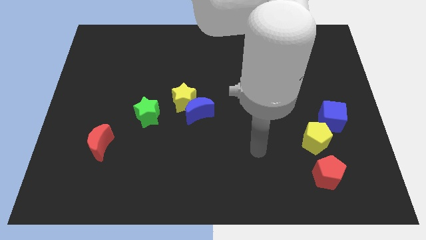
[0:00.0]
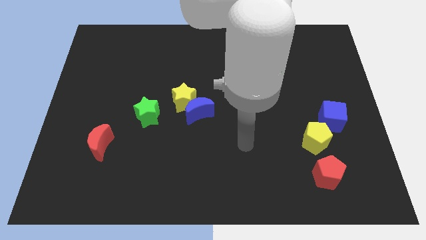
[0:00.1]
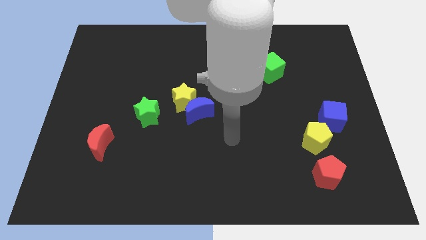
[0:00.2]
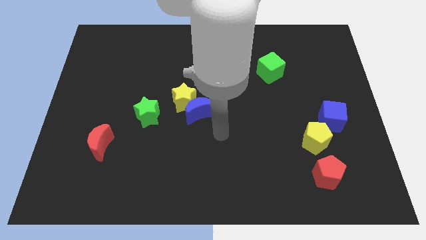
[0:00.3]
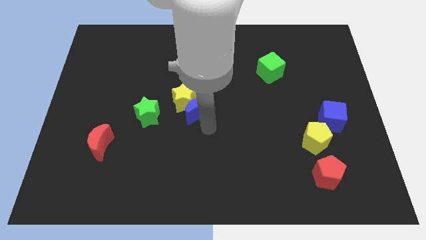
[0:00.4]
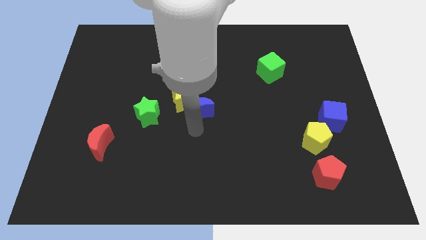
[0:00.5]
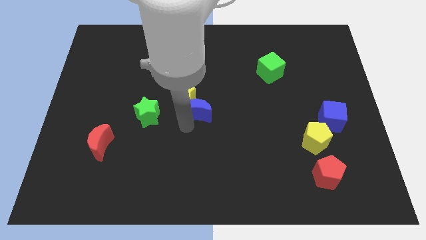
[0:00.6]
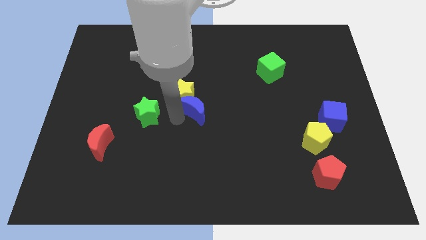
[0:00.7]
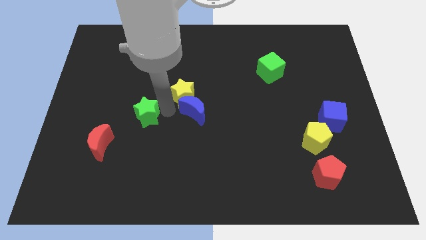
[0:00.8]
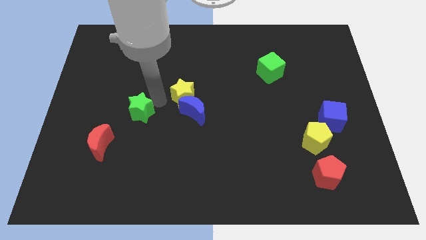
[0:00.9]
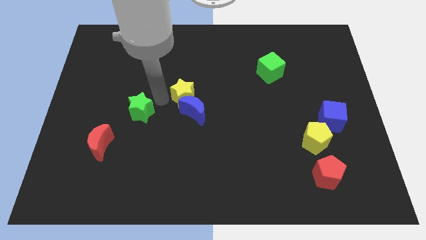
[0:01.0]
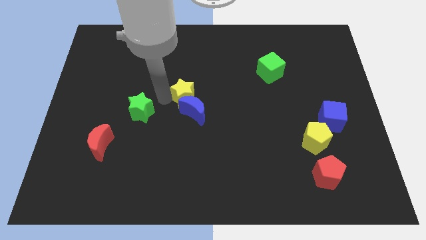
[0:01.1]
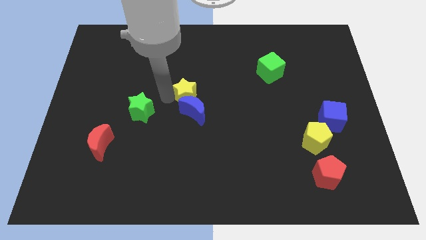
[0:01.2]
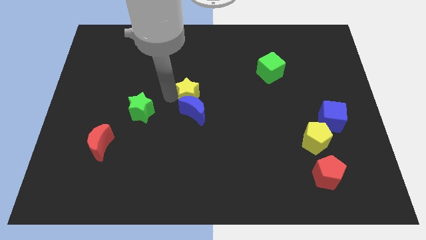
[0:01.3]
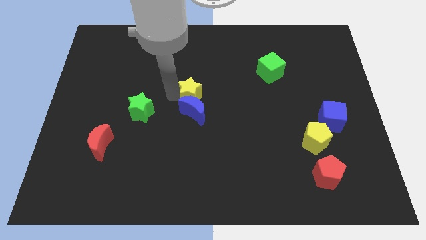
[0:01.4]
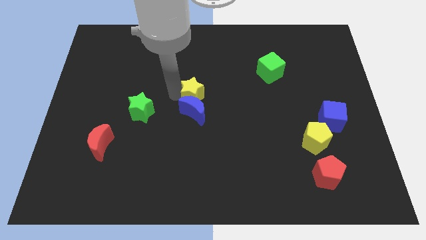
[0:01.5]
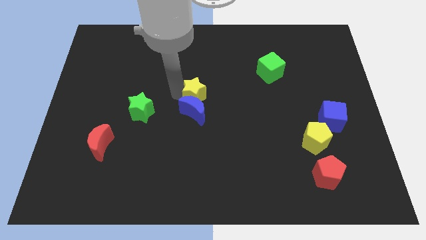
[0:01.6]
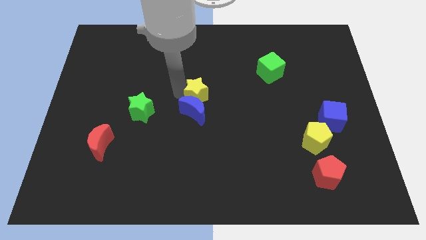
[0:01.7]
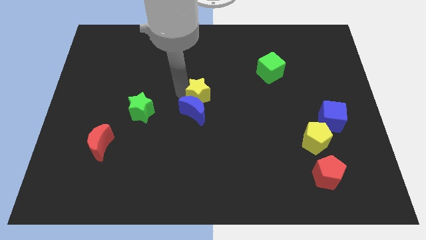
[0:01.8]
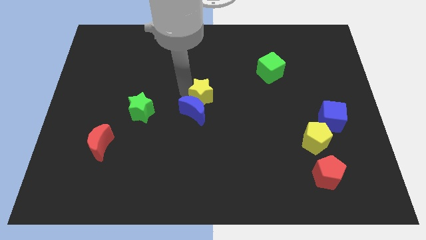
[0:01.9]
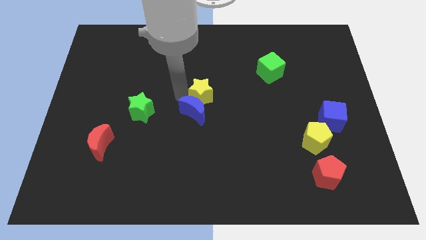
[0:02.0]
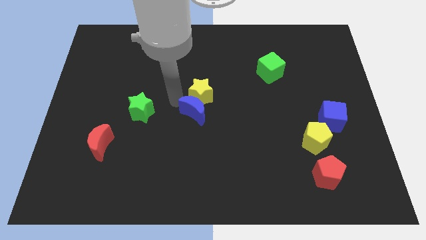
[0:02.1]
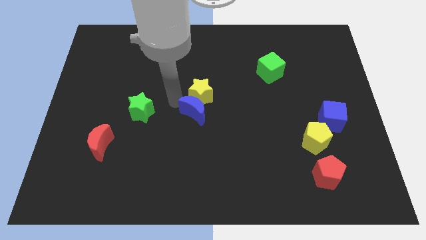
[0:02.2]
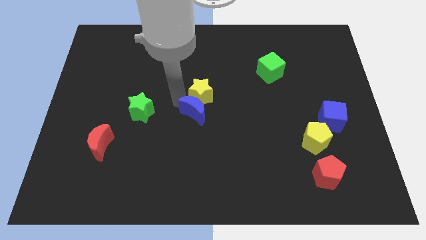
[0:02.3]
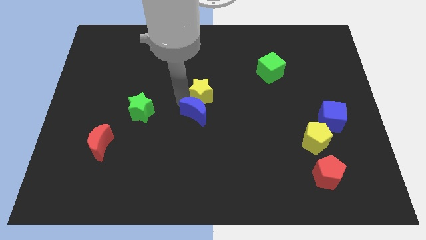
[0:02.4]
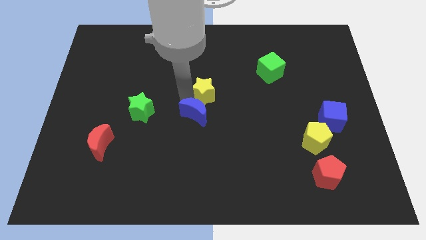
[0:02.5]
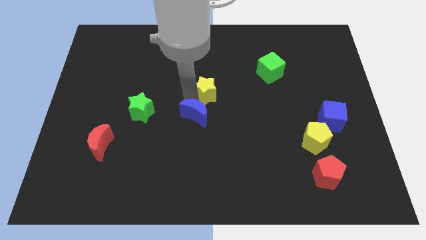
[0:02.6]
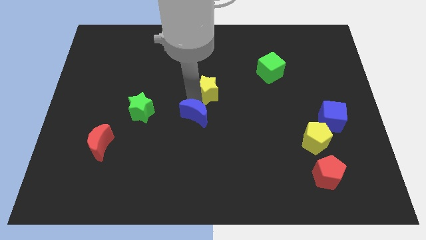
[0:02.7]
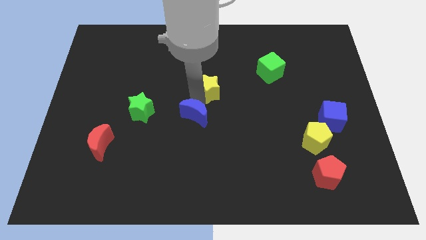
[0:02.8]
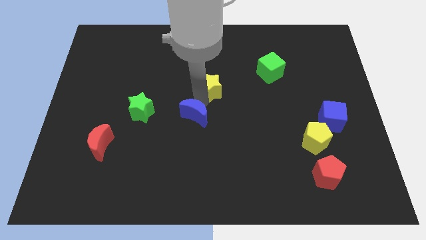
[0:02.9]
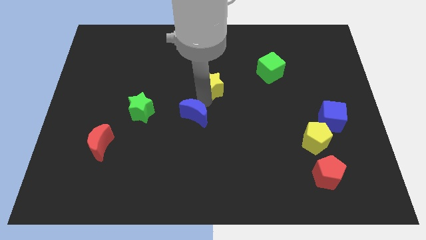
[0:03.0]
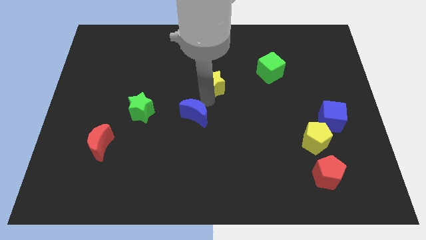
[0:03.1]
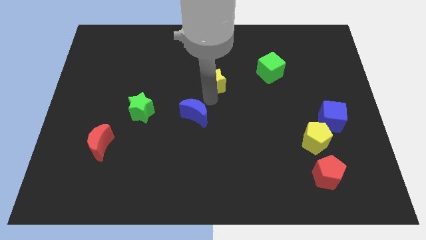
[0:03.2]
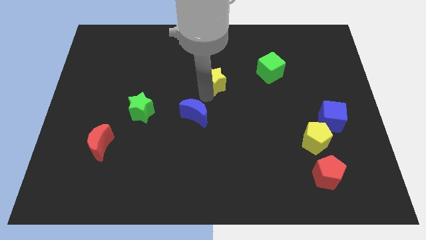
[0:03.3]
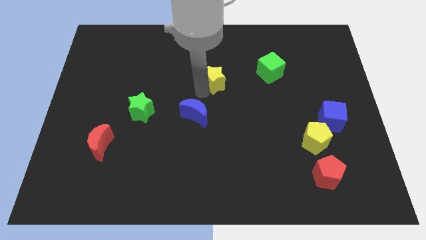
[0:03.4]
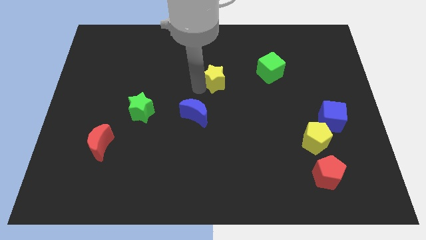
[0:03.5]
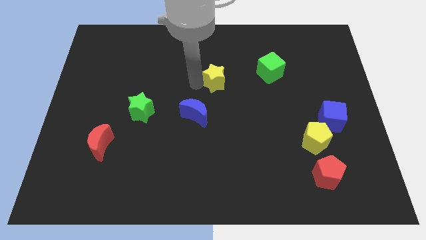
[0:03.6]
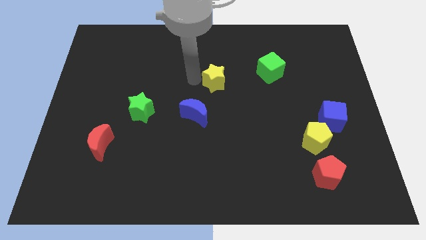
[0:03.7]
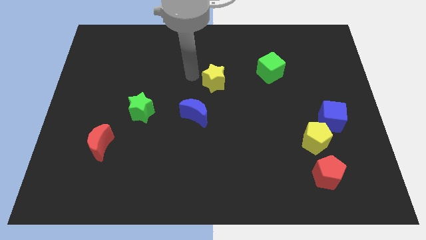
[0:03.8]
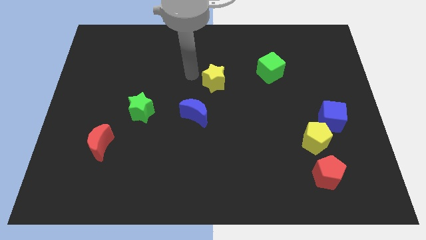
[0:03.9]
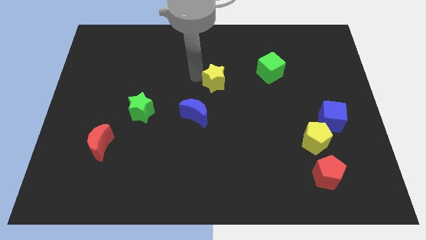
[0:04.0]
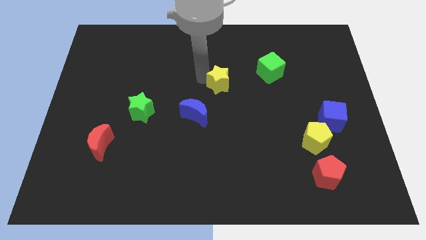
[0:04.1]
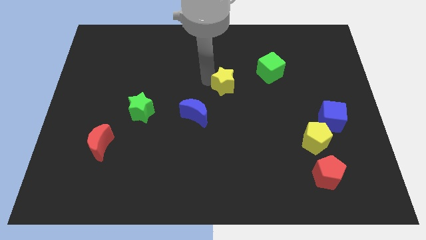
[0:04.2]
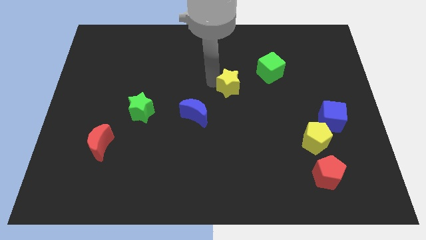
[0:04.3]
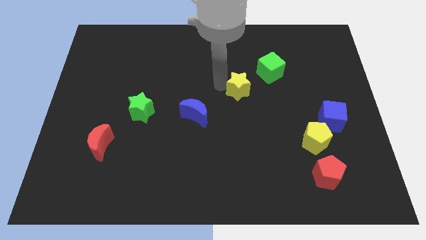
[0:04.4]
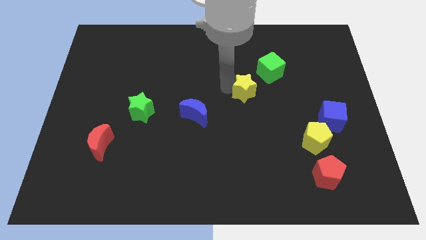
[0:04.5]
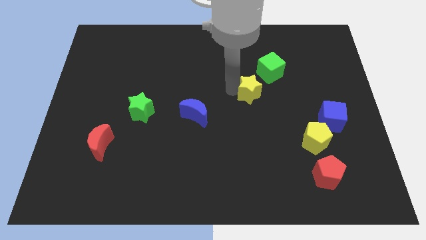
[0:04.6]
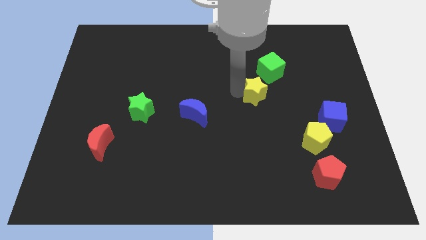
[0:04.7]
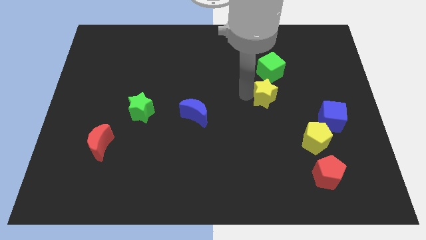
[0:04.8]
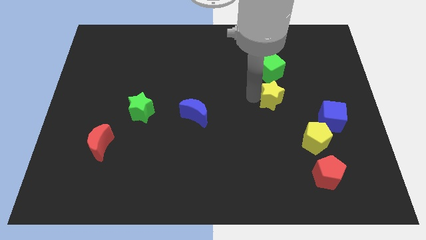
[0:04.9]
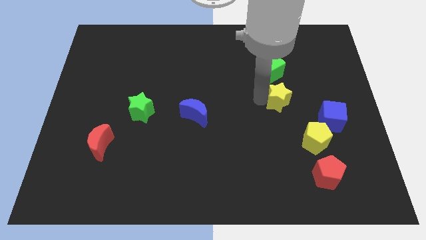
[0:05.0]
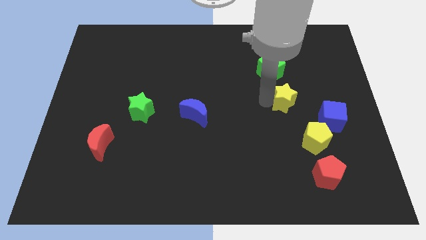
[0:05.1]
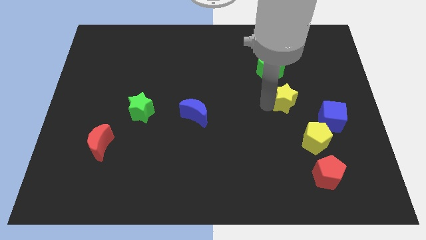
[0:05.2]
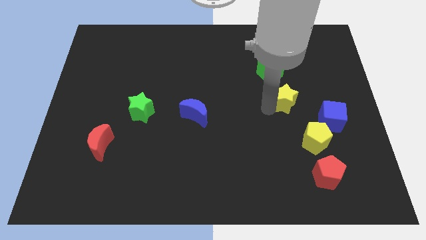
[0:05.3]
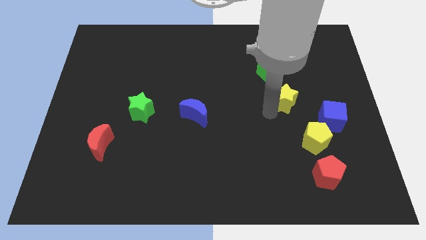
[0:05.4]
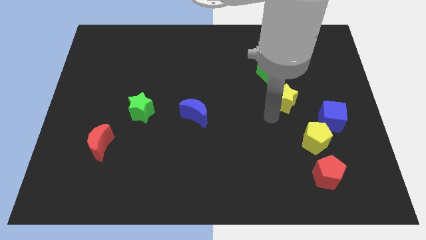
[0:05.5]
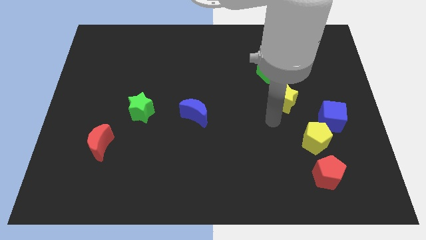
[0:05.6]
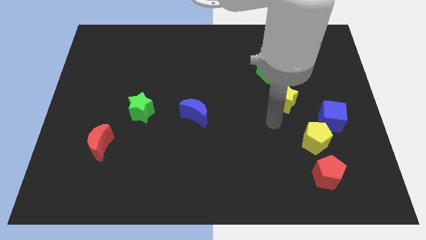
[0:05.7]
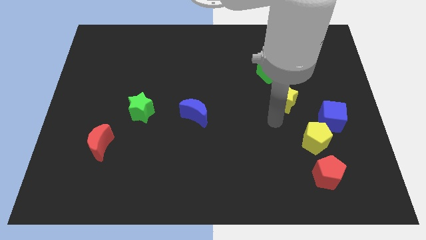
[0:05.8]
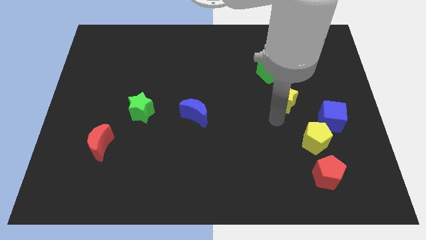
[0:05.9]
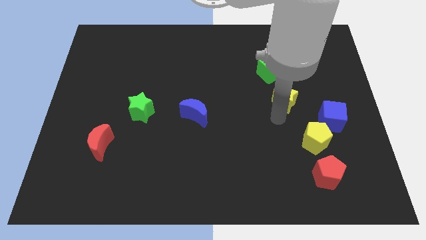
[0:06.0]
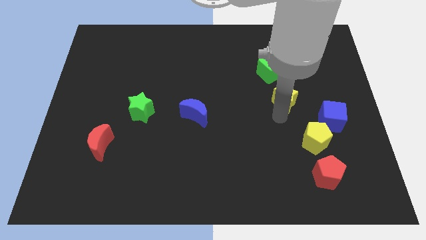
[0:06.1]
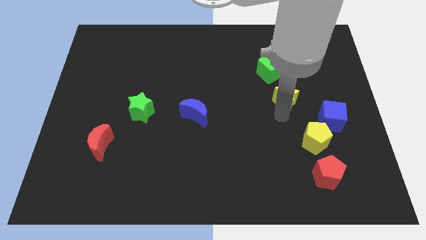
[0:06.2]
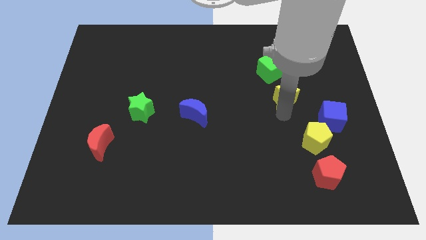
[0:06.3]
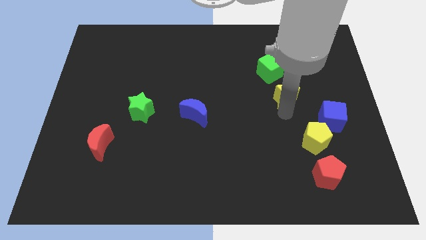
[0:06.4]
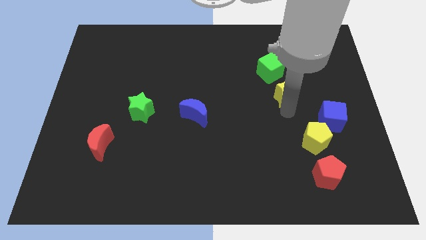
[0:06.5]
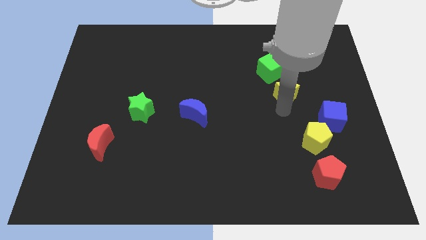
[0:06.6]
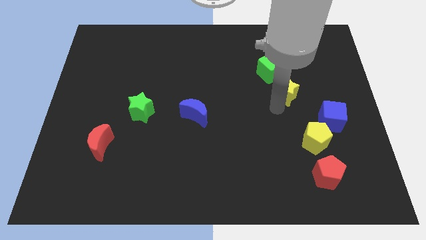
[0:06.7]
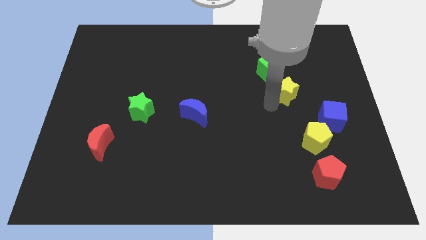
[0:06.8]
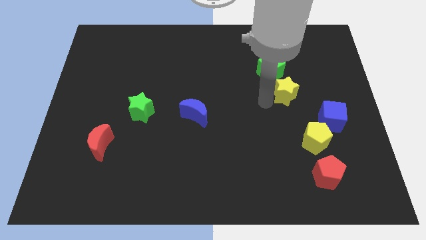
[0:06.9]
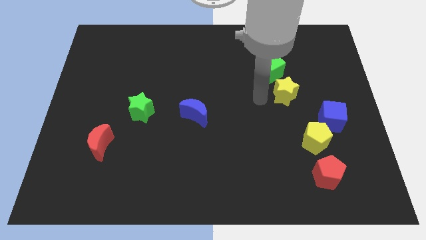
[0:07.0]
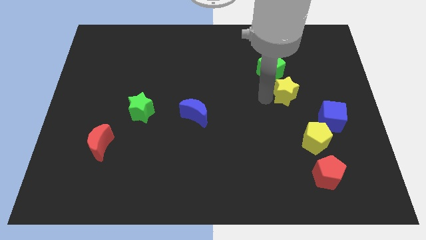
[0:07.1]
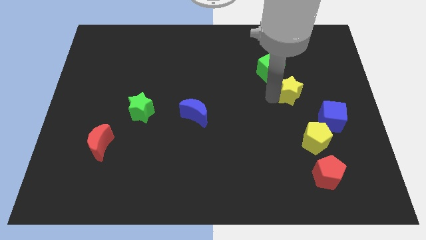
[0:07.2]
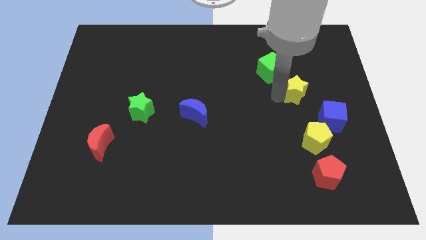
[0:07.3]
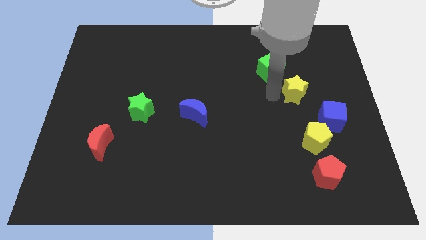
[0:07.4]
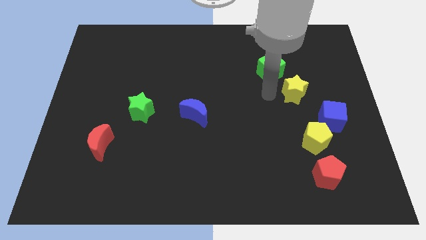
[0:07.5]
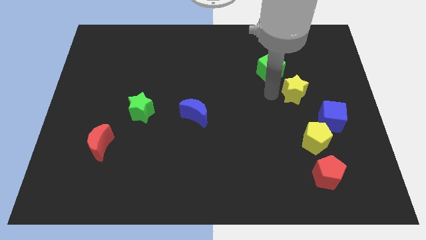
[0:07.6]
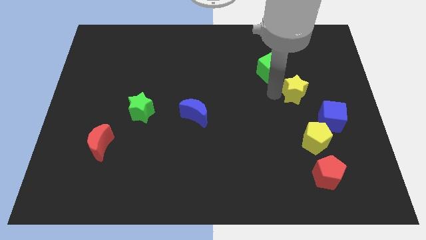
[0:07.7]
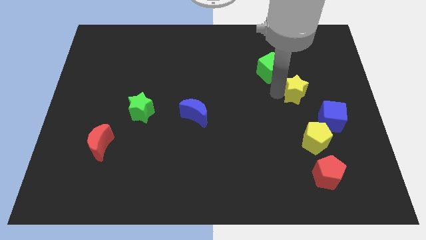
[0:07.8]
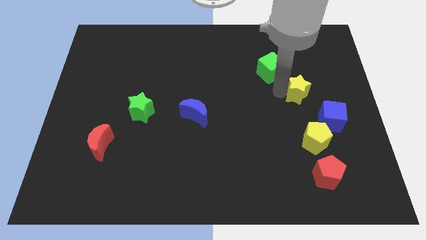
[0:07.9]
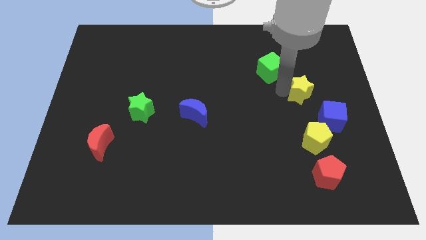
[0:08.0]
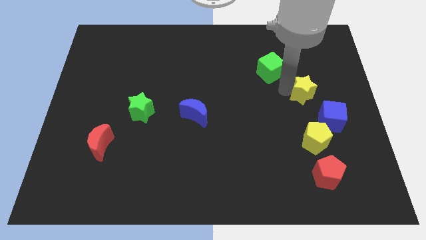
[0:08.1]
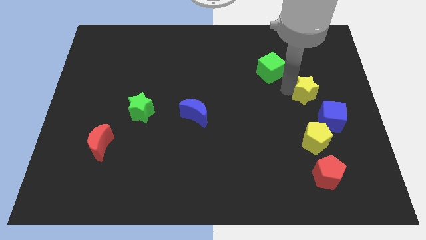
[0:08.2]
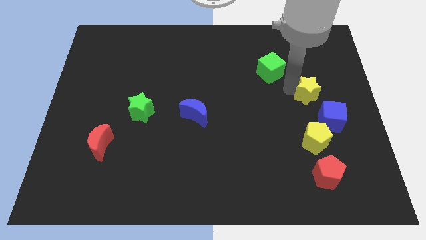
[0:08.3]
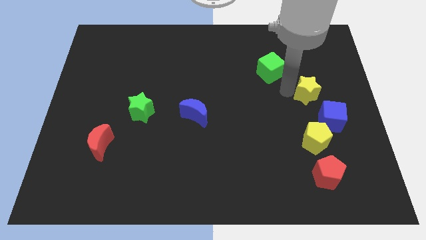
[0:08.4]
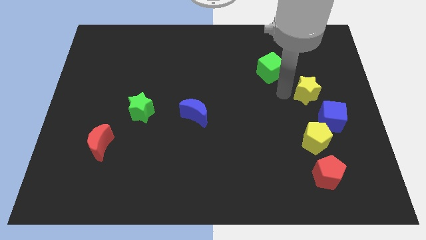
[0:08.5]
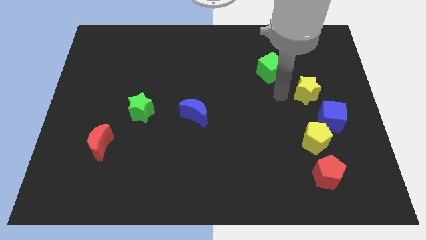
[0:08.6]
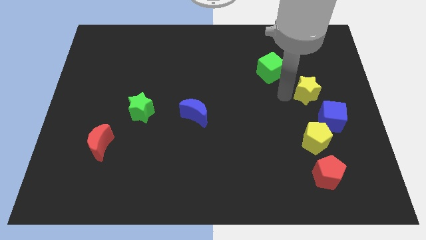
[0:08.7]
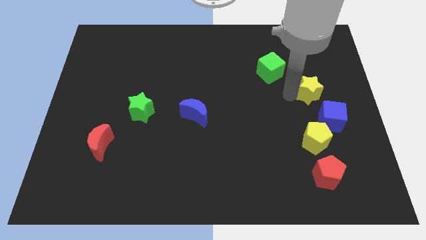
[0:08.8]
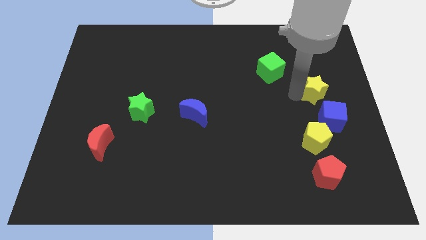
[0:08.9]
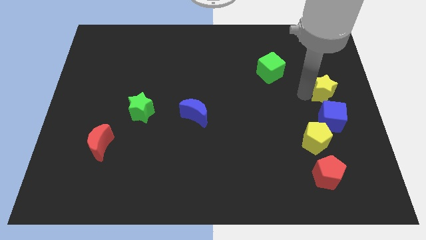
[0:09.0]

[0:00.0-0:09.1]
push the yellow star to the right side
